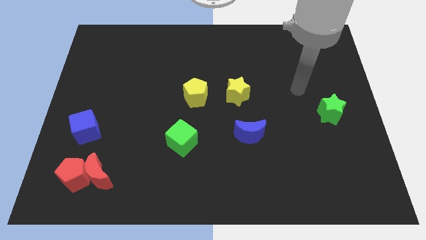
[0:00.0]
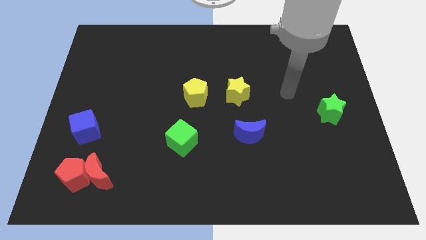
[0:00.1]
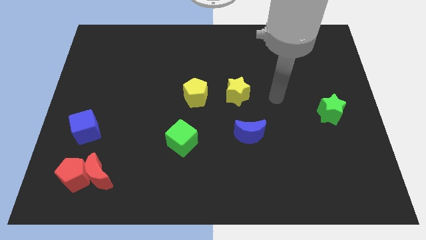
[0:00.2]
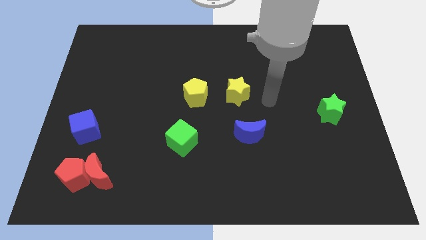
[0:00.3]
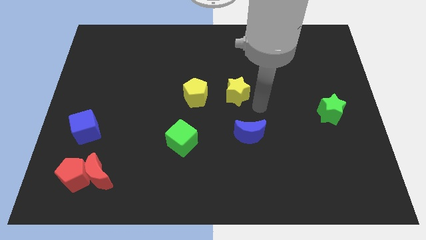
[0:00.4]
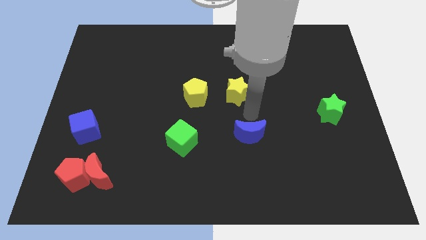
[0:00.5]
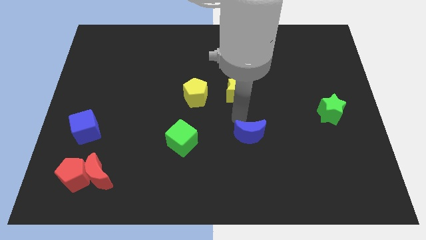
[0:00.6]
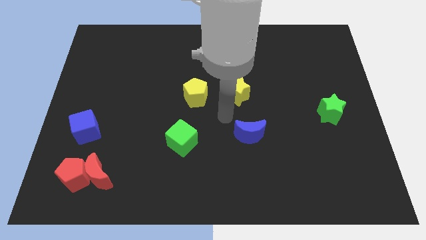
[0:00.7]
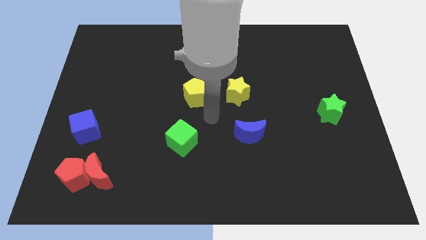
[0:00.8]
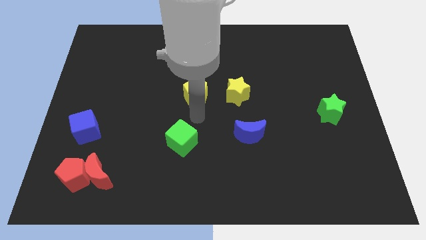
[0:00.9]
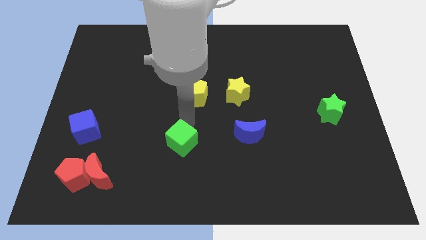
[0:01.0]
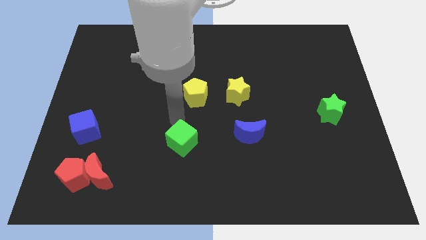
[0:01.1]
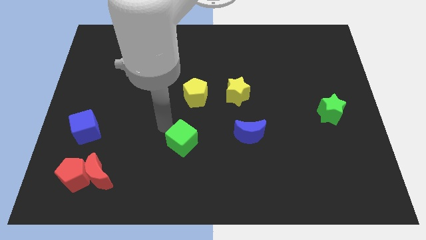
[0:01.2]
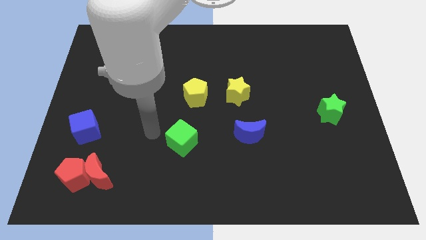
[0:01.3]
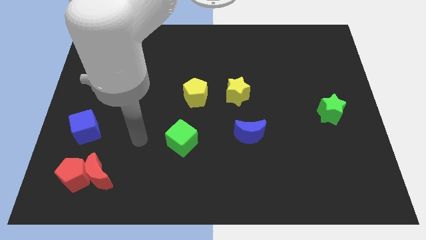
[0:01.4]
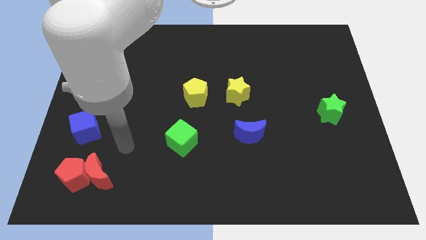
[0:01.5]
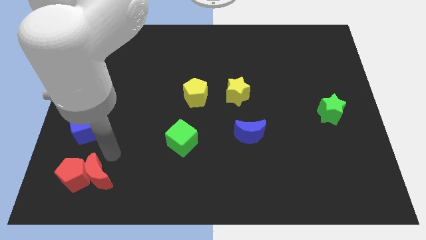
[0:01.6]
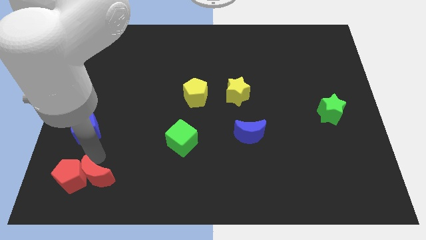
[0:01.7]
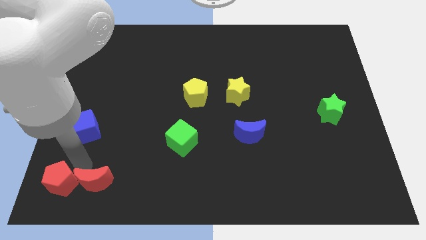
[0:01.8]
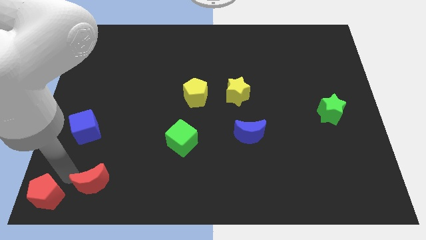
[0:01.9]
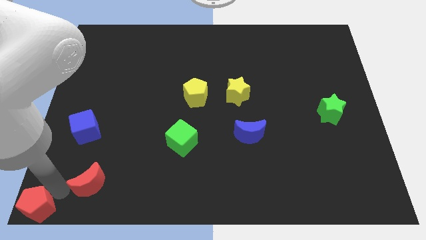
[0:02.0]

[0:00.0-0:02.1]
pull the red moon apart from the red pentagon

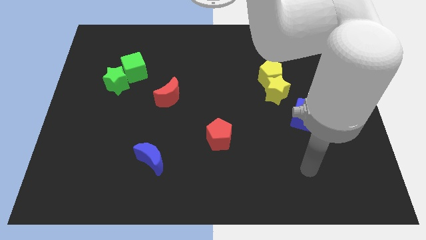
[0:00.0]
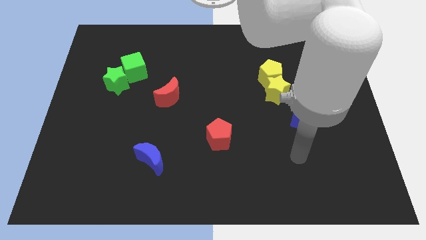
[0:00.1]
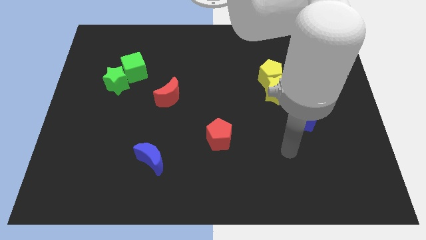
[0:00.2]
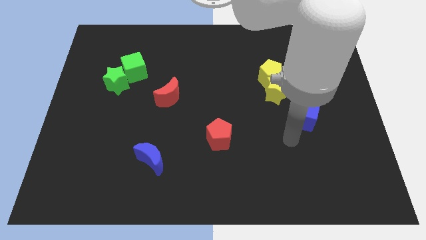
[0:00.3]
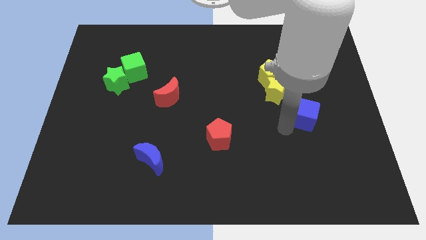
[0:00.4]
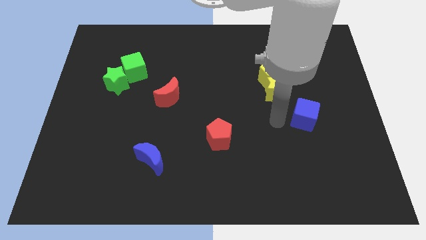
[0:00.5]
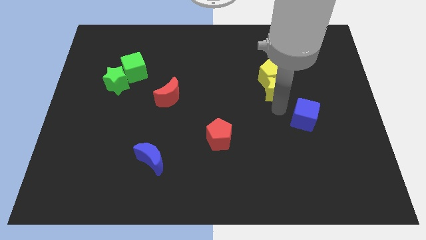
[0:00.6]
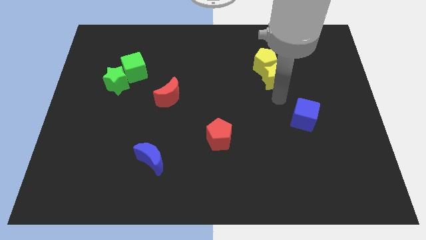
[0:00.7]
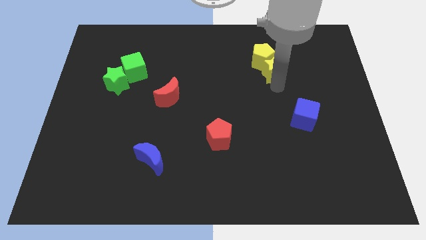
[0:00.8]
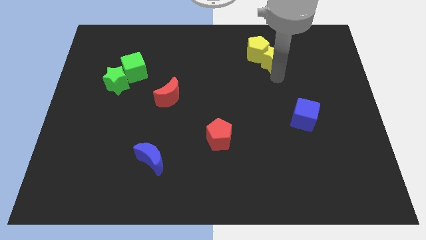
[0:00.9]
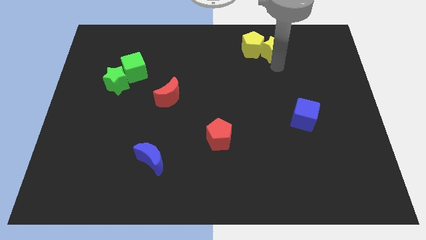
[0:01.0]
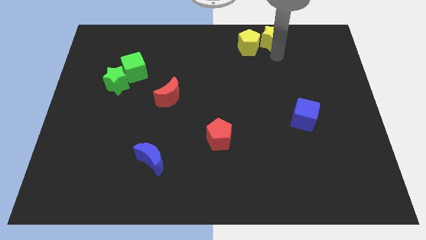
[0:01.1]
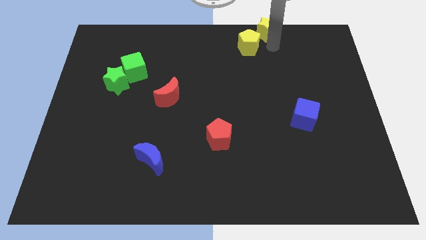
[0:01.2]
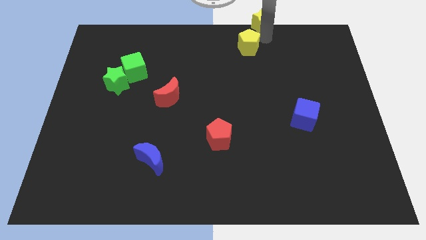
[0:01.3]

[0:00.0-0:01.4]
move the yellow pentagon away from the yellow star

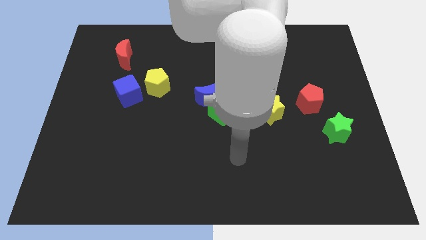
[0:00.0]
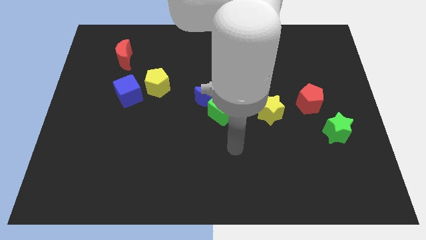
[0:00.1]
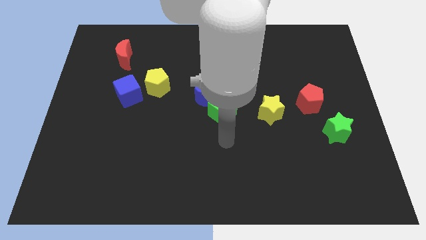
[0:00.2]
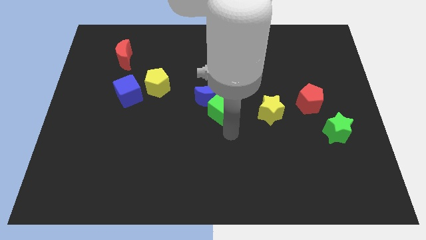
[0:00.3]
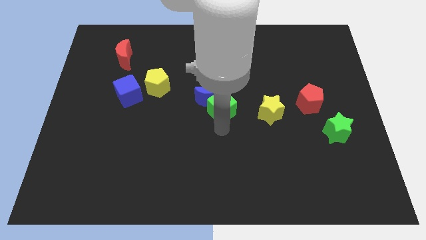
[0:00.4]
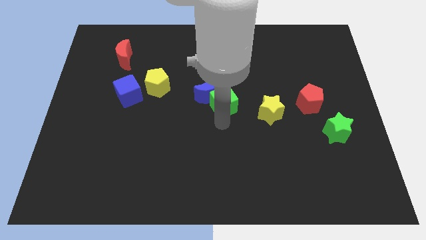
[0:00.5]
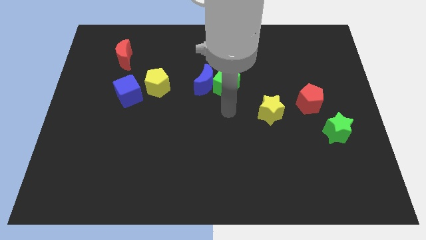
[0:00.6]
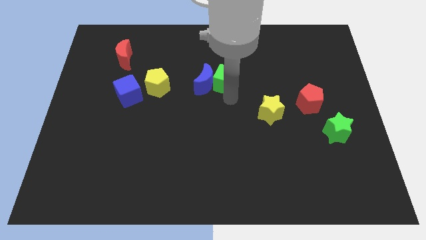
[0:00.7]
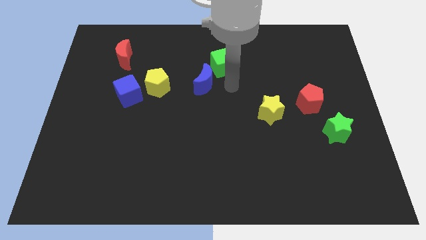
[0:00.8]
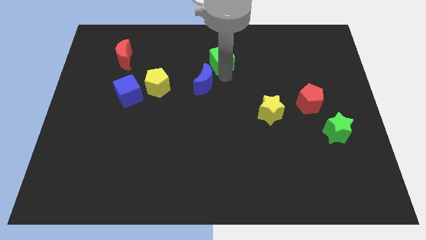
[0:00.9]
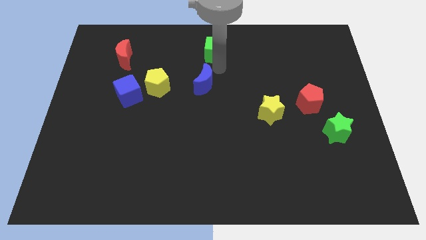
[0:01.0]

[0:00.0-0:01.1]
separate the blue moon from the green cube

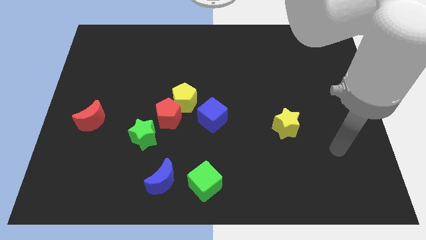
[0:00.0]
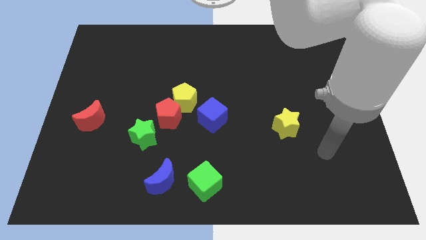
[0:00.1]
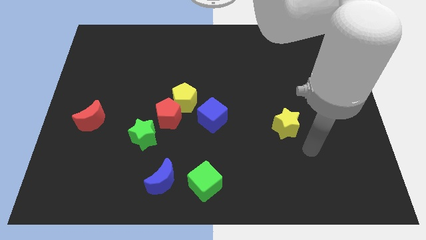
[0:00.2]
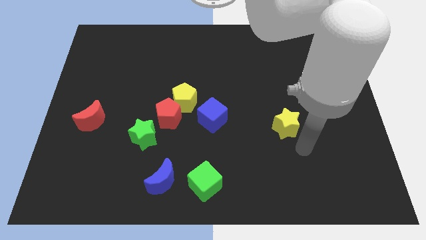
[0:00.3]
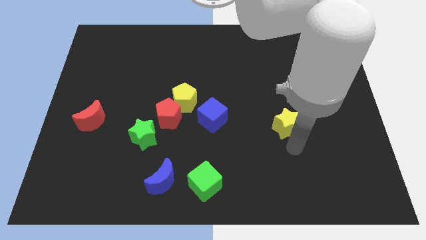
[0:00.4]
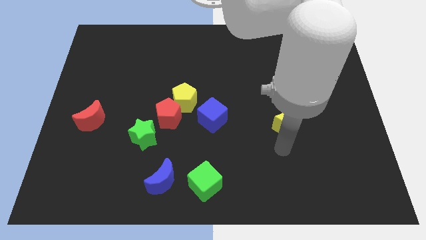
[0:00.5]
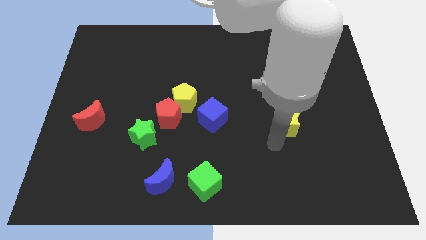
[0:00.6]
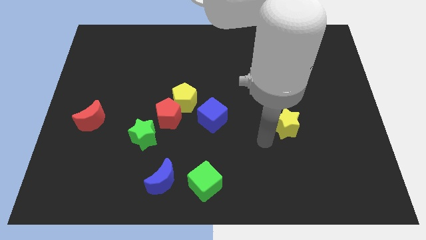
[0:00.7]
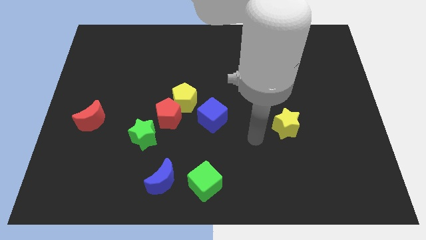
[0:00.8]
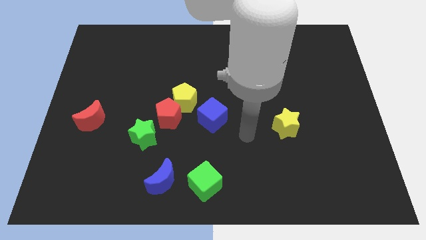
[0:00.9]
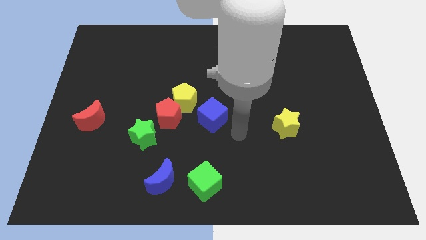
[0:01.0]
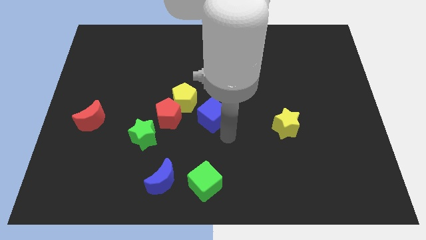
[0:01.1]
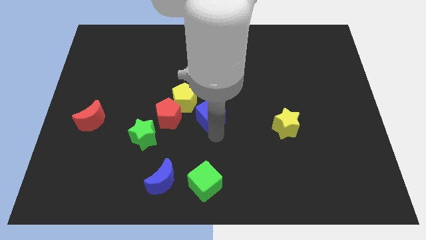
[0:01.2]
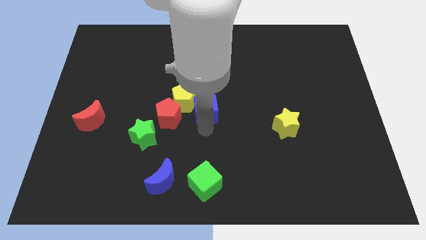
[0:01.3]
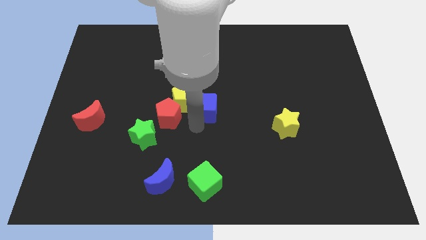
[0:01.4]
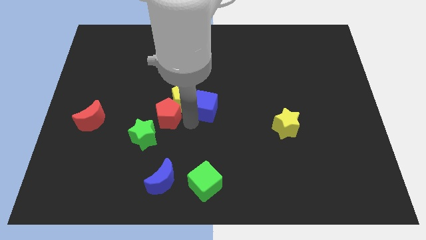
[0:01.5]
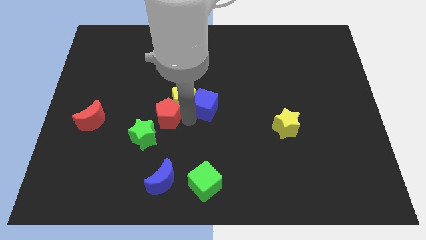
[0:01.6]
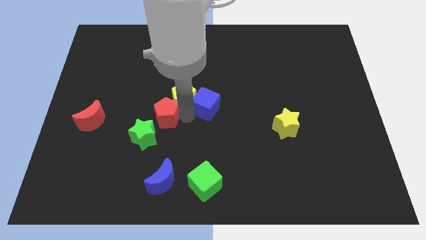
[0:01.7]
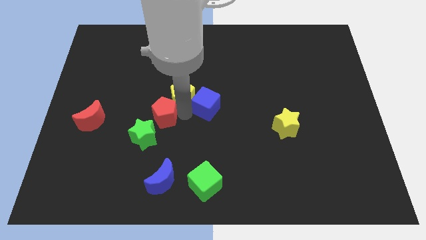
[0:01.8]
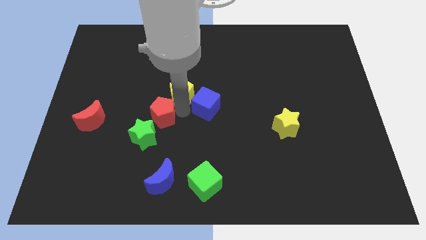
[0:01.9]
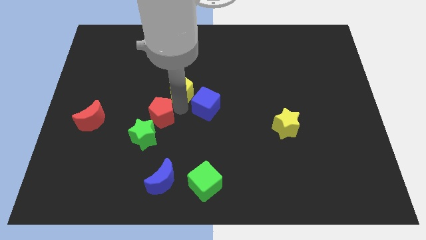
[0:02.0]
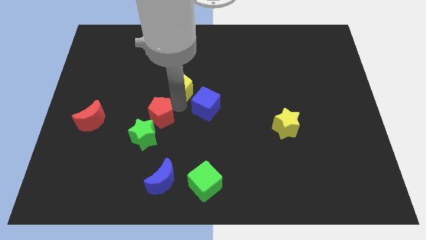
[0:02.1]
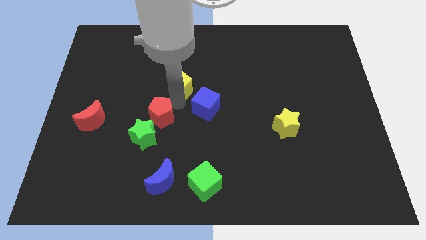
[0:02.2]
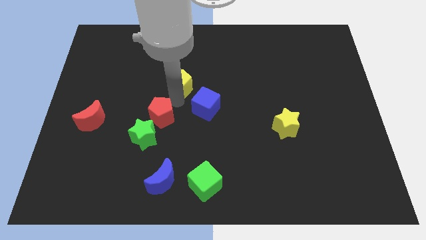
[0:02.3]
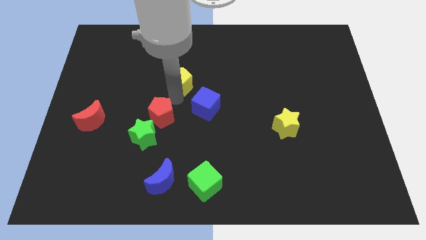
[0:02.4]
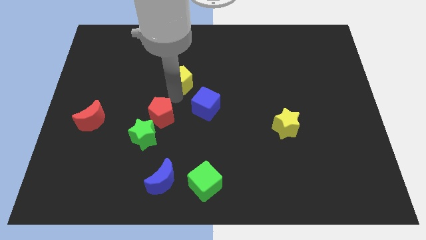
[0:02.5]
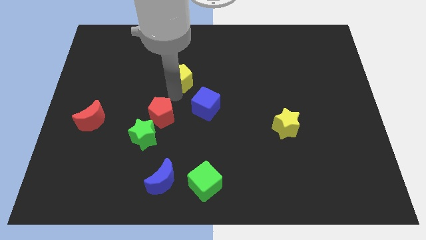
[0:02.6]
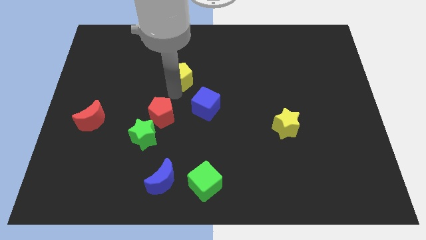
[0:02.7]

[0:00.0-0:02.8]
separate the yellow pentagon from the red pentagon and blue cube

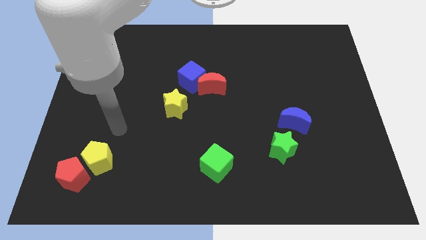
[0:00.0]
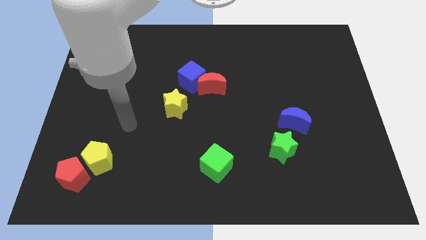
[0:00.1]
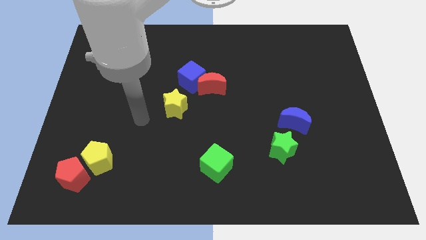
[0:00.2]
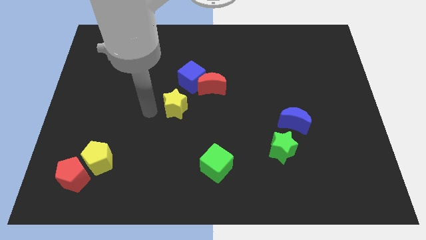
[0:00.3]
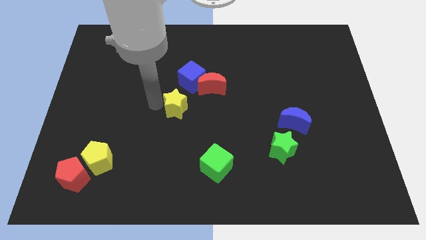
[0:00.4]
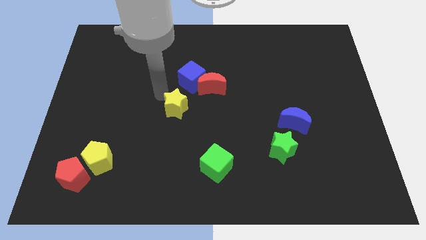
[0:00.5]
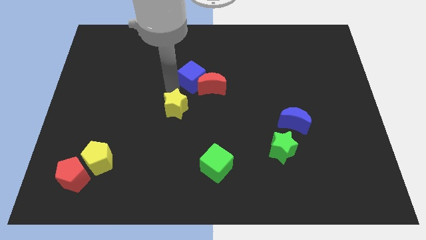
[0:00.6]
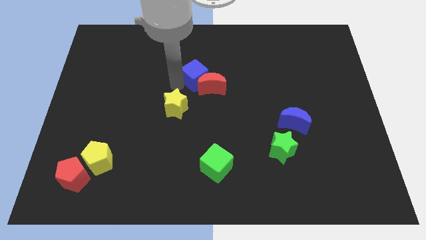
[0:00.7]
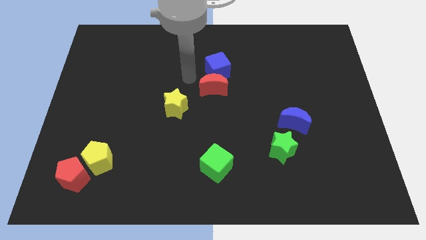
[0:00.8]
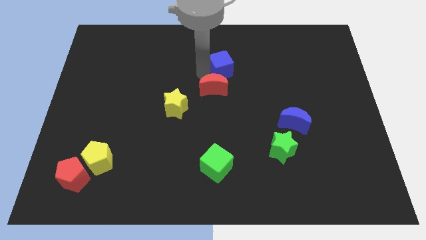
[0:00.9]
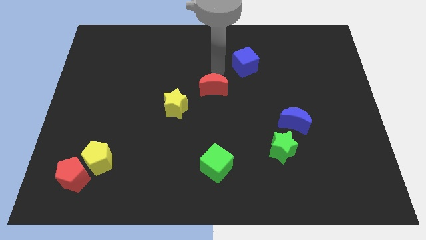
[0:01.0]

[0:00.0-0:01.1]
pull the red moon apart from the blue cube

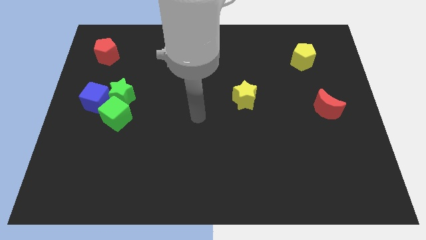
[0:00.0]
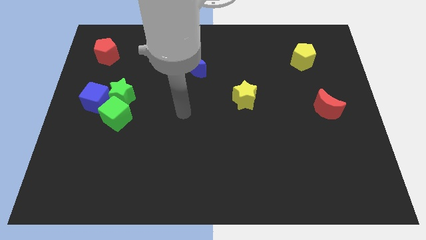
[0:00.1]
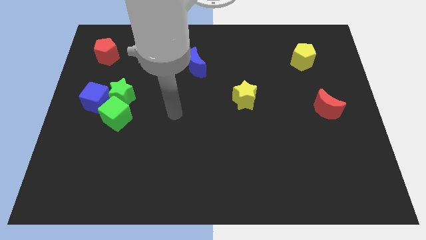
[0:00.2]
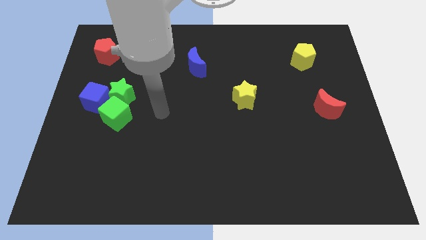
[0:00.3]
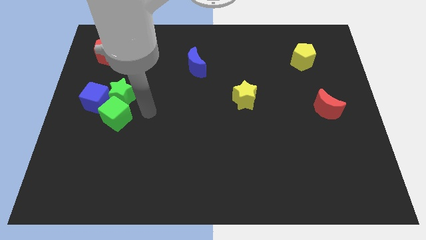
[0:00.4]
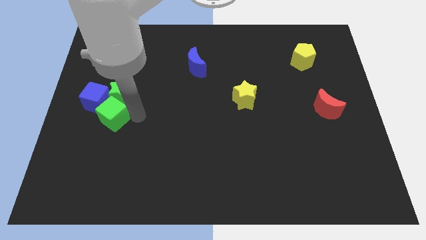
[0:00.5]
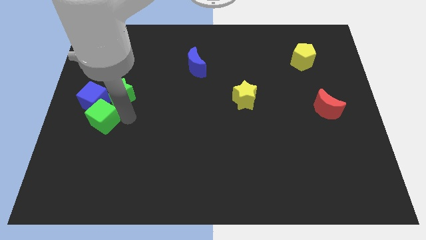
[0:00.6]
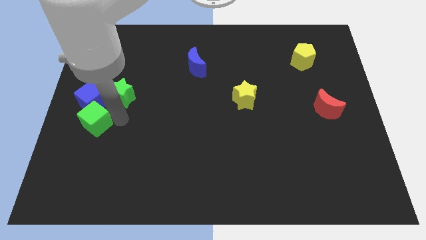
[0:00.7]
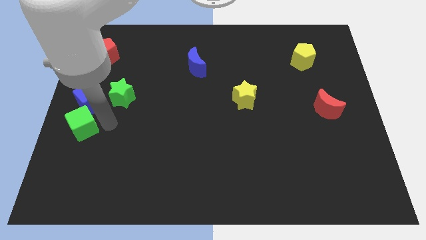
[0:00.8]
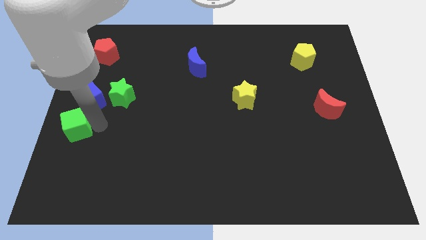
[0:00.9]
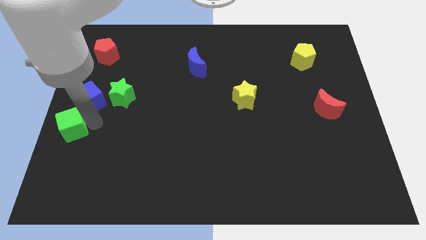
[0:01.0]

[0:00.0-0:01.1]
pull the green star apart from the blue cube and green cube
